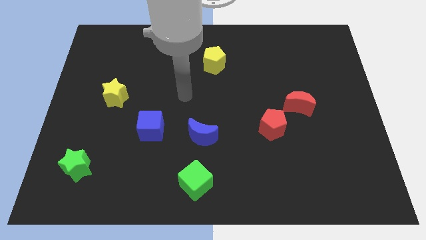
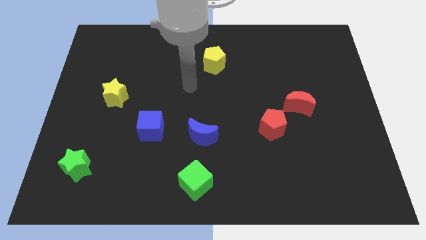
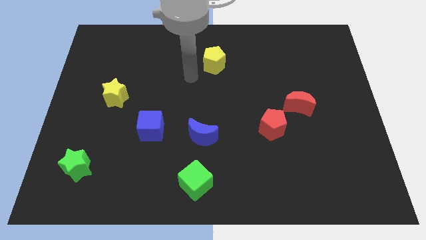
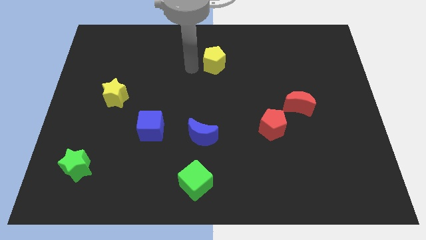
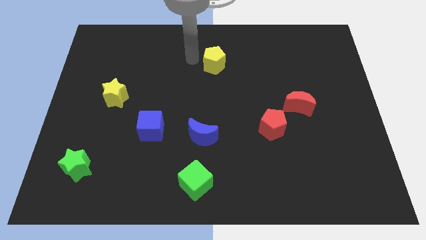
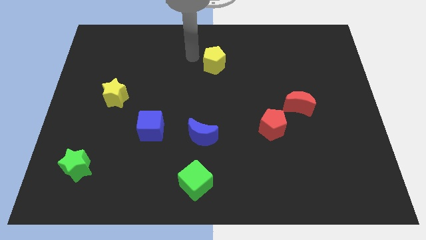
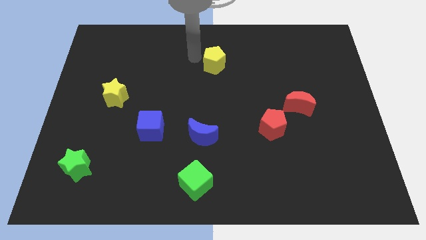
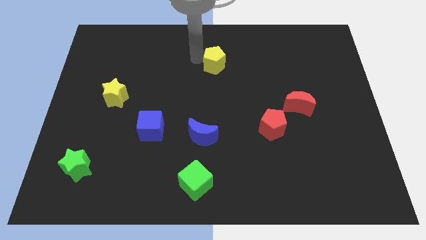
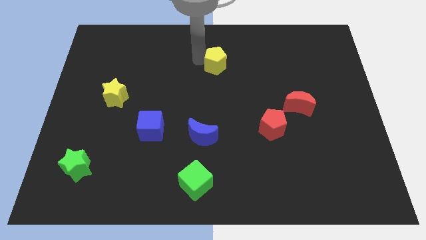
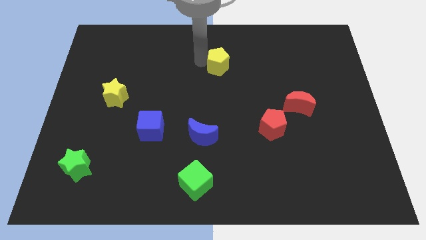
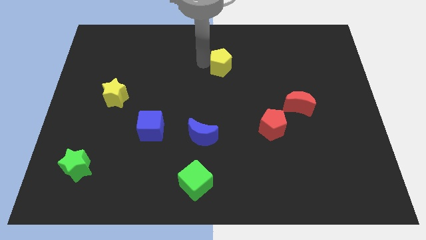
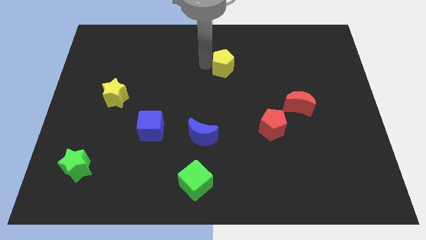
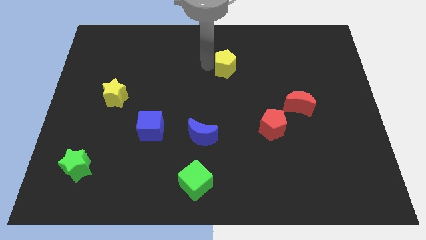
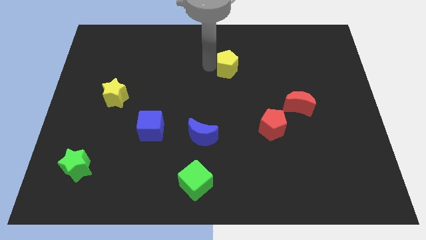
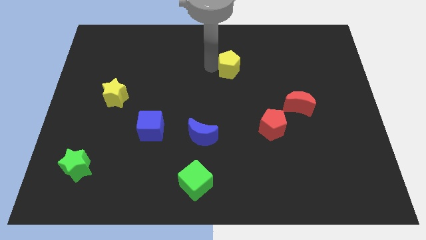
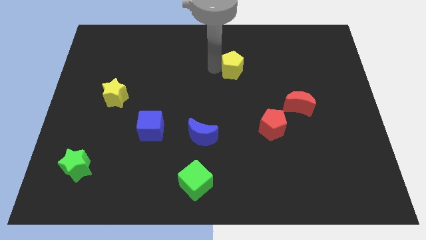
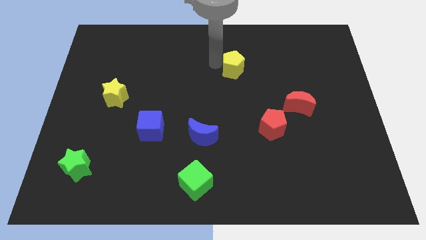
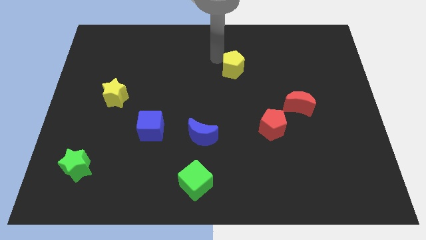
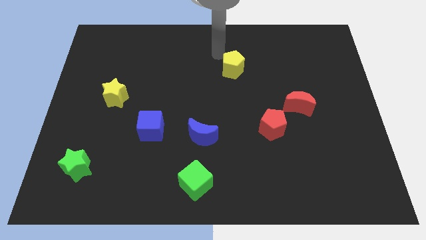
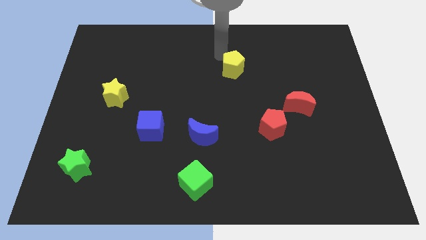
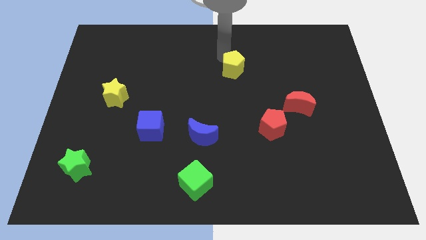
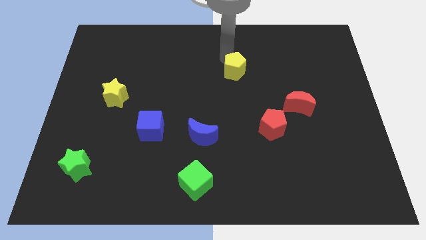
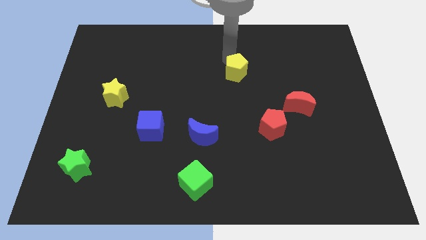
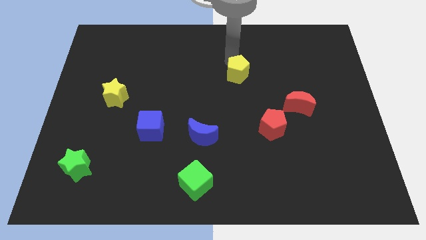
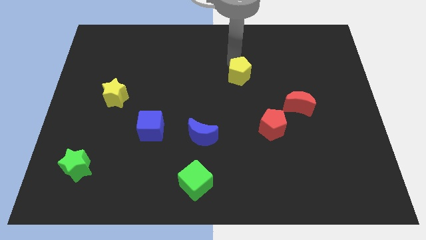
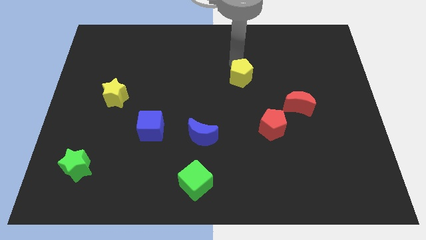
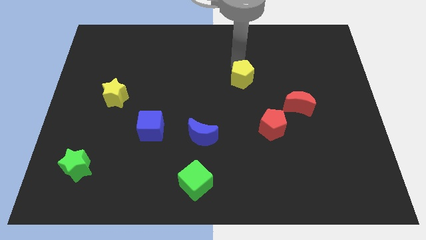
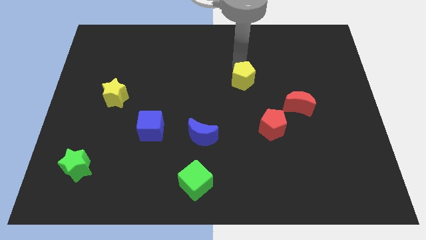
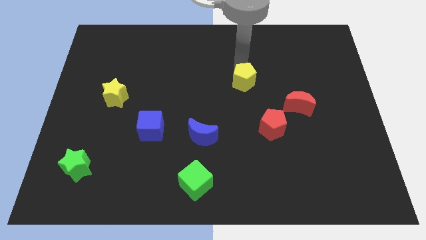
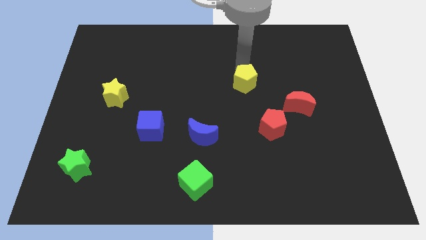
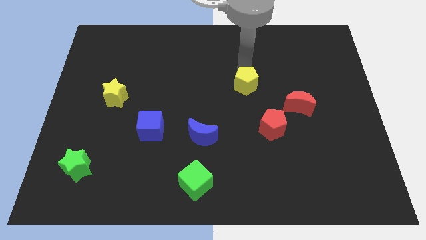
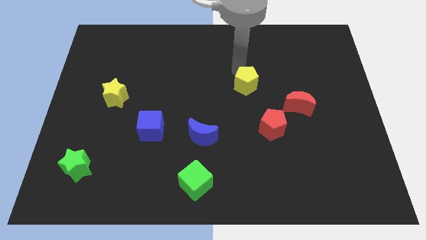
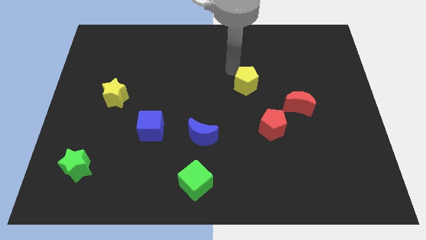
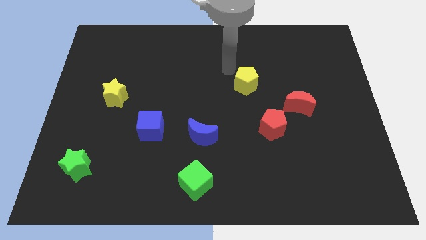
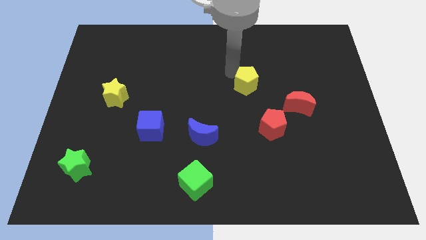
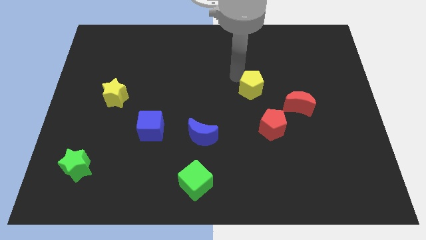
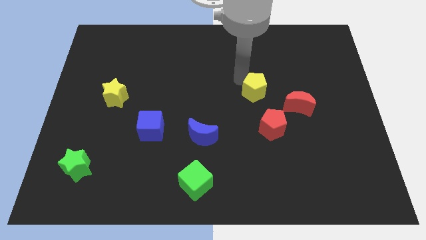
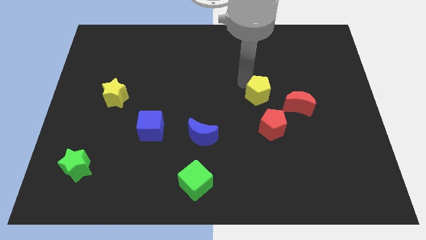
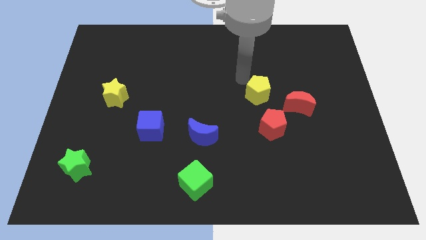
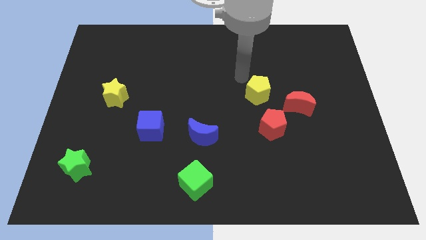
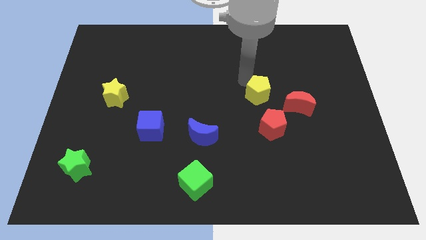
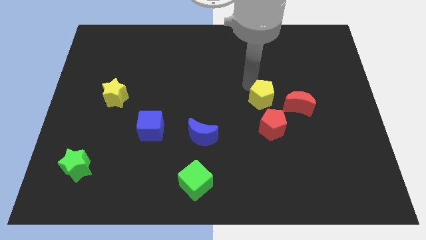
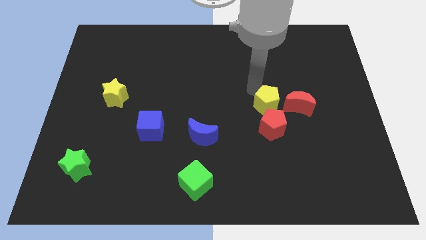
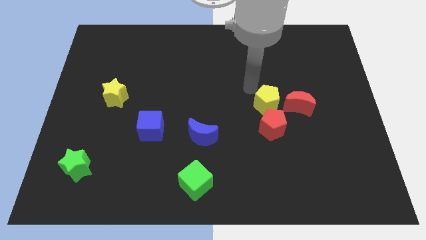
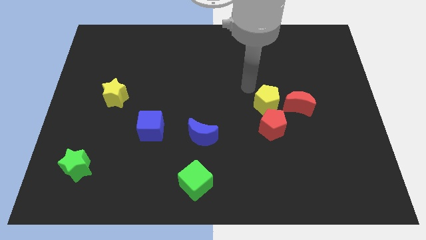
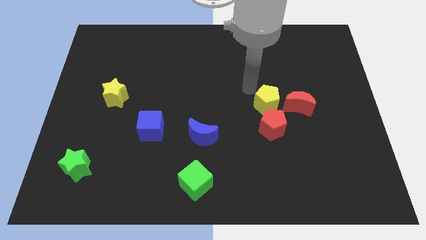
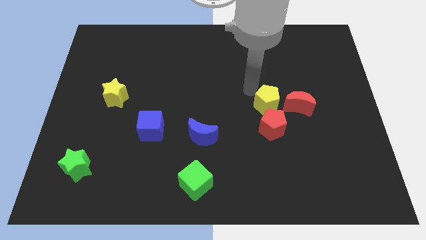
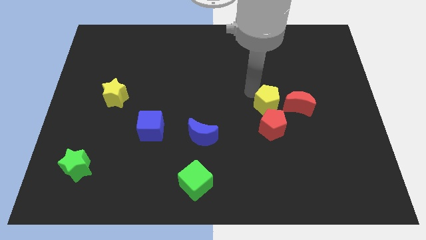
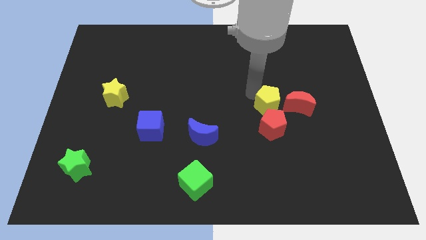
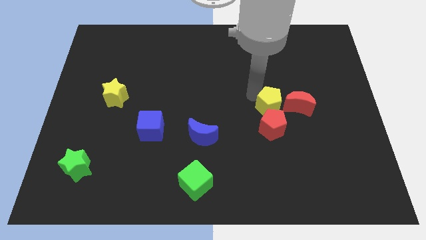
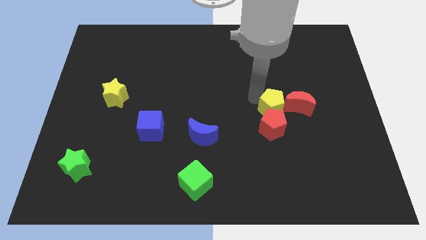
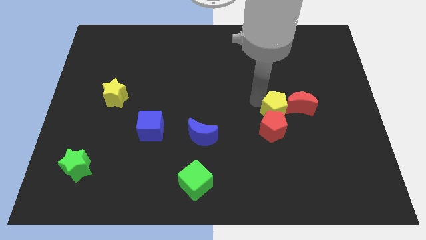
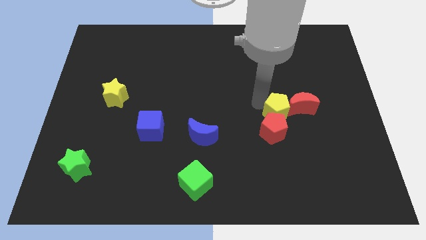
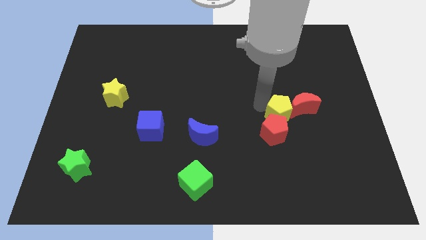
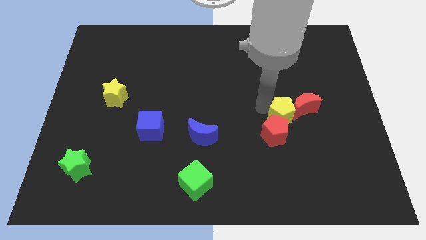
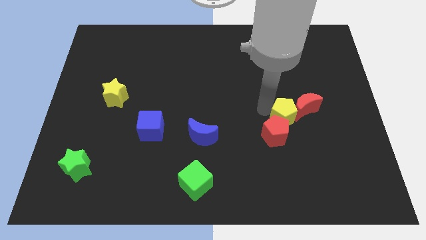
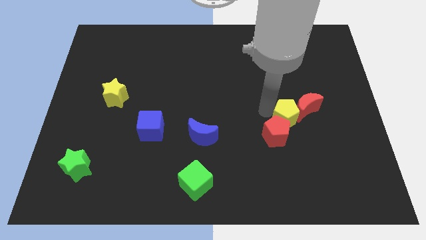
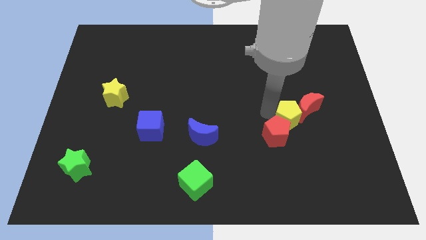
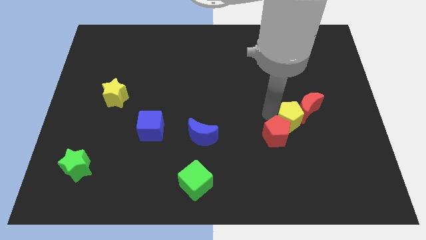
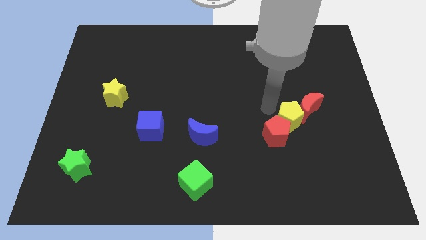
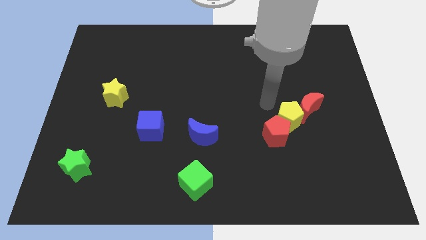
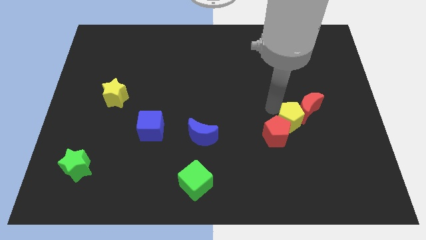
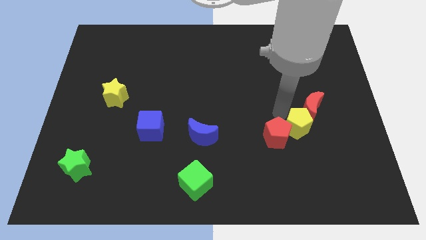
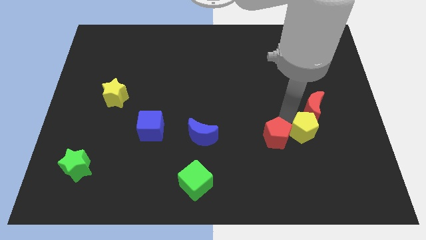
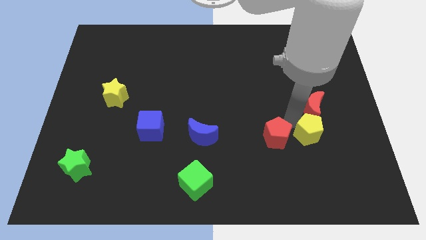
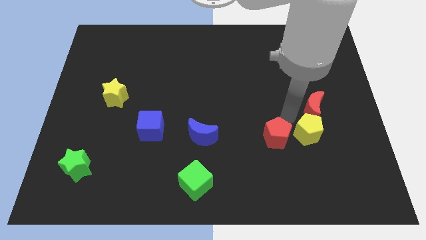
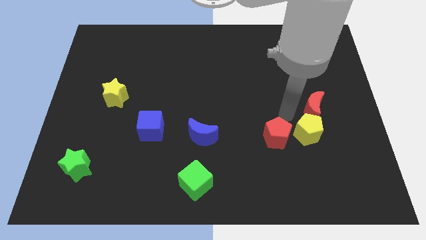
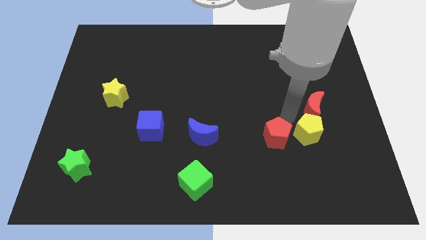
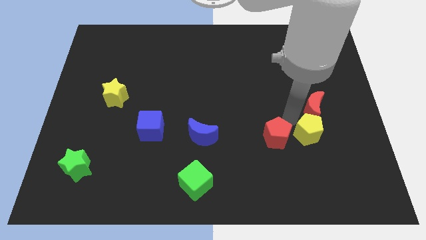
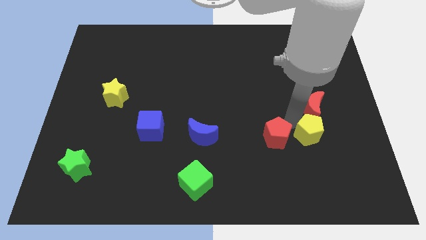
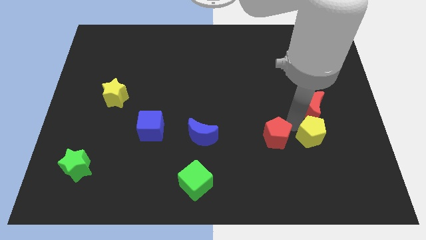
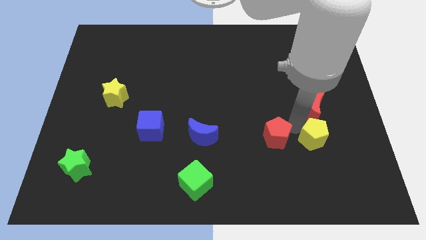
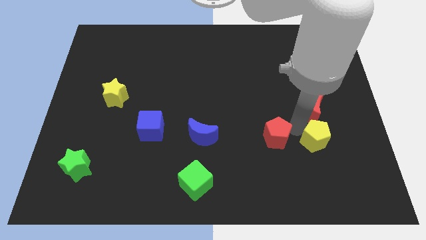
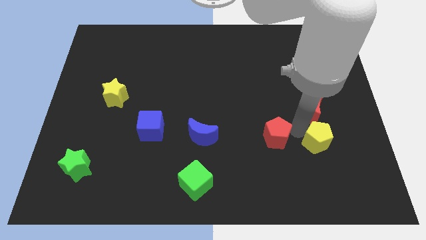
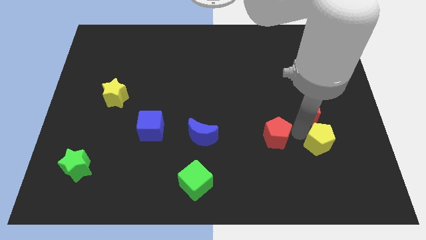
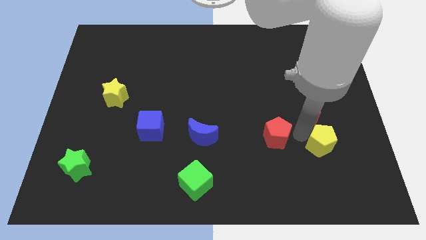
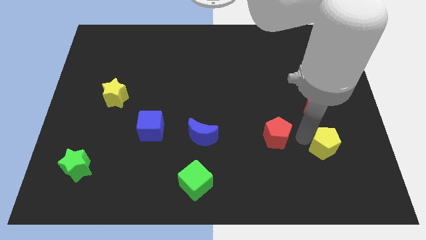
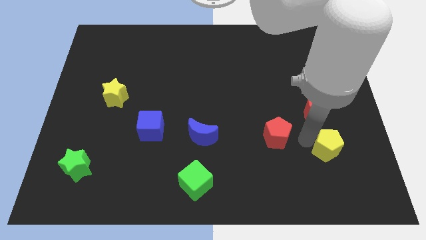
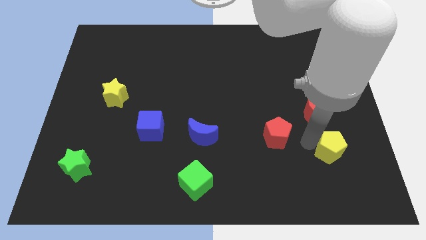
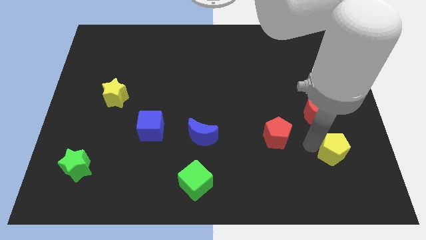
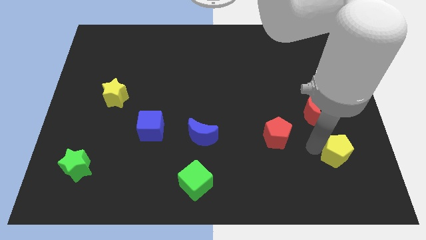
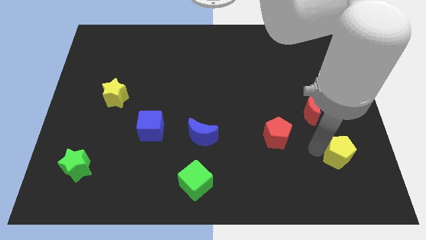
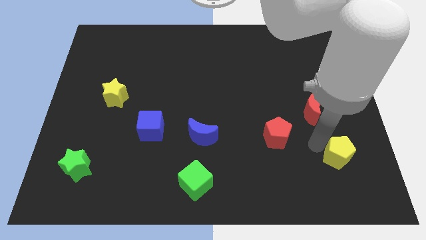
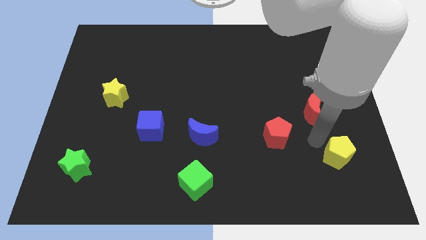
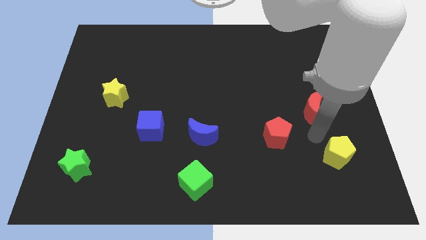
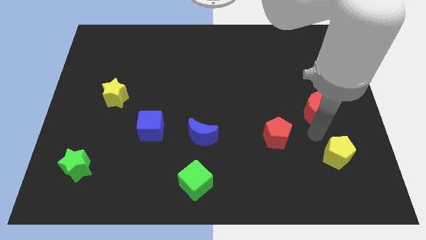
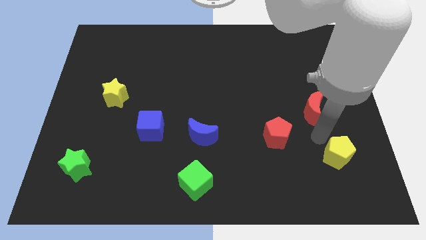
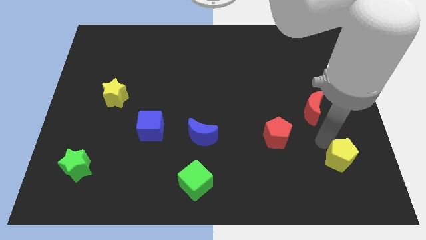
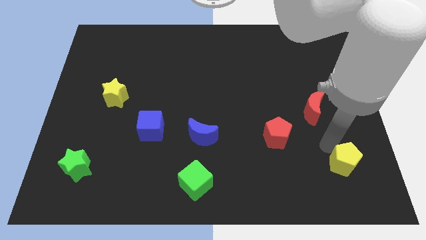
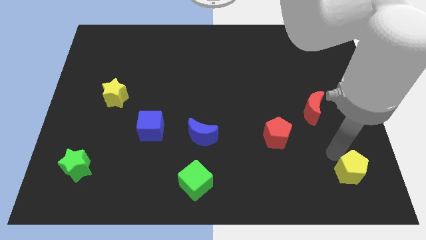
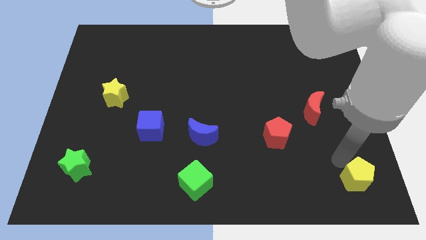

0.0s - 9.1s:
push the yellow pentagon to the bottom right of the board
